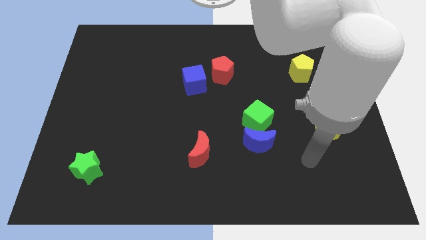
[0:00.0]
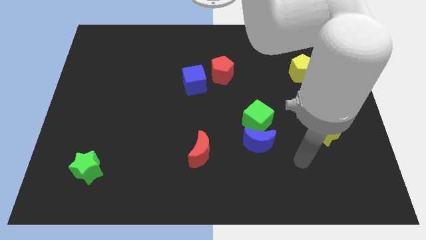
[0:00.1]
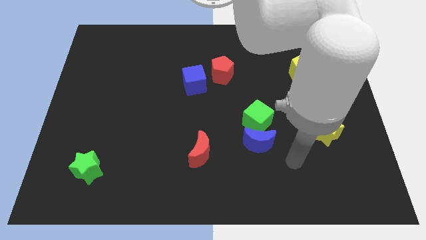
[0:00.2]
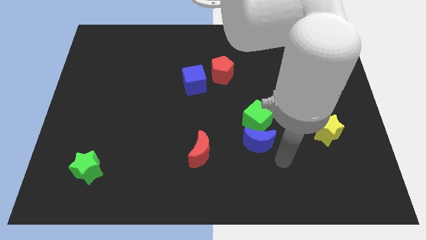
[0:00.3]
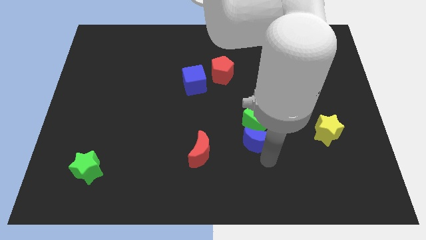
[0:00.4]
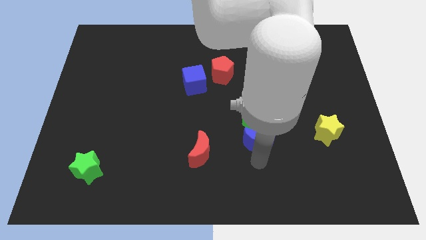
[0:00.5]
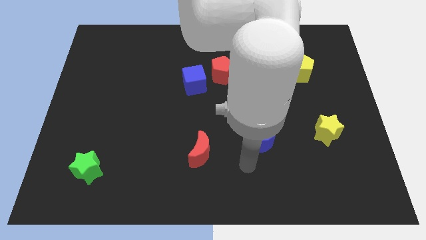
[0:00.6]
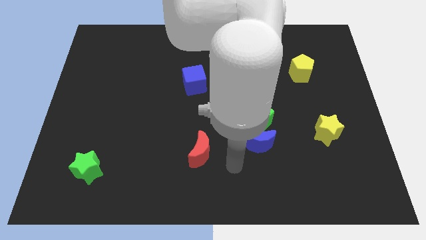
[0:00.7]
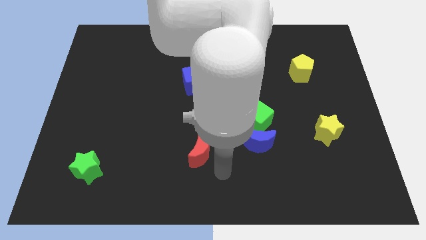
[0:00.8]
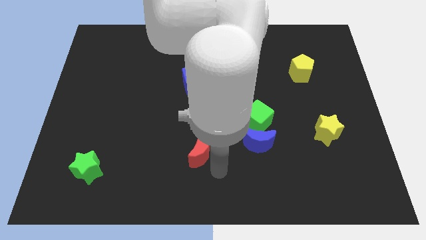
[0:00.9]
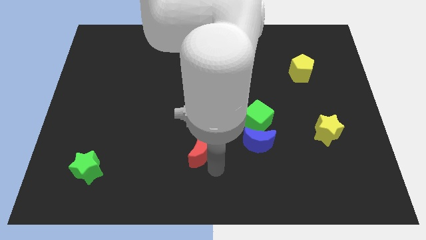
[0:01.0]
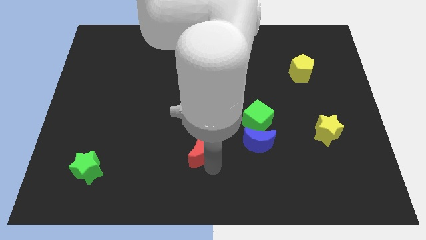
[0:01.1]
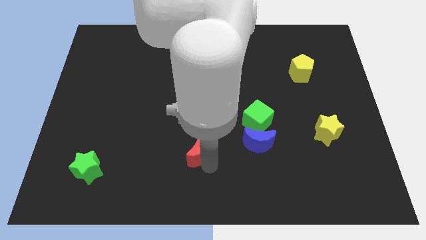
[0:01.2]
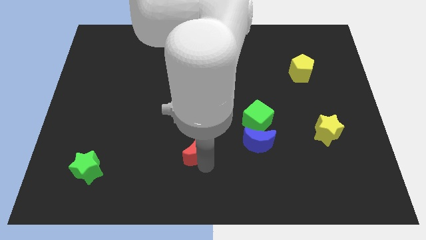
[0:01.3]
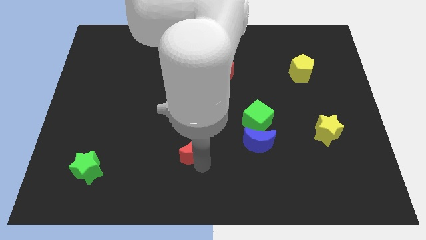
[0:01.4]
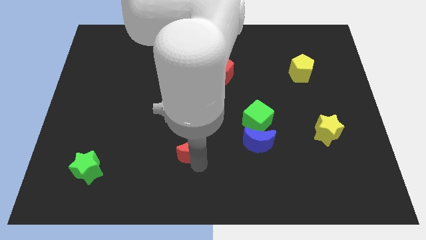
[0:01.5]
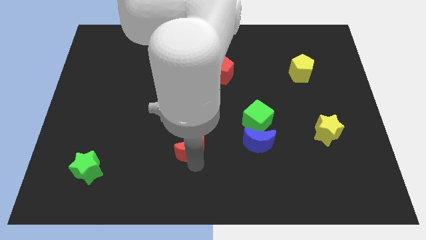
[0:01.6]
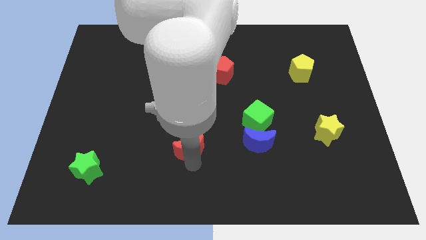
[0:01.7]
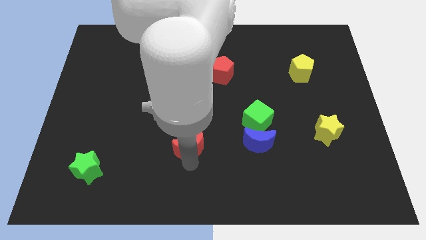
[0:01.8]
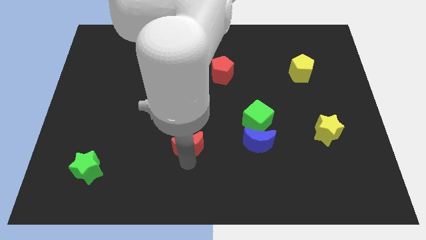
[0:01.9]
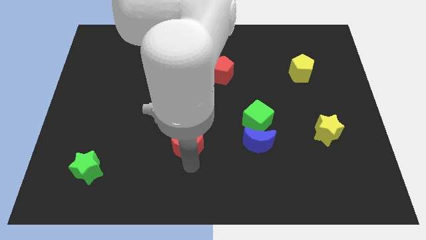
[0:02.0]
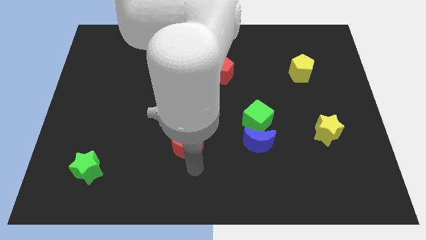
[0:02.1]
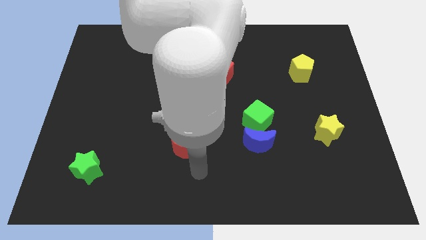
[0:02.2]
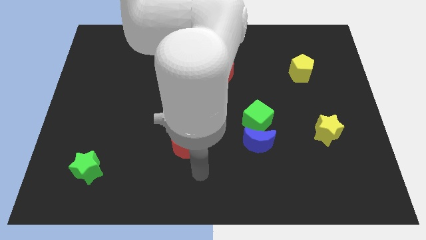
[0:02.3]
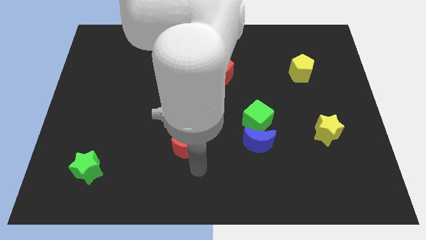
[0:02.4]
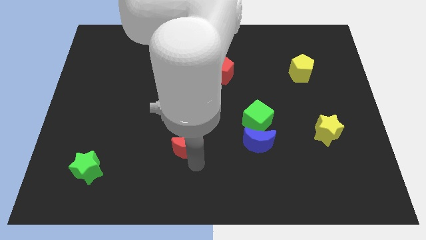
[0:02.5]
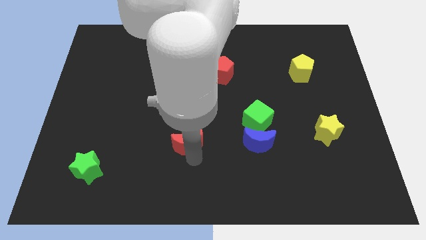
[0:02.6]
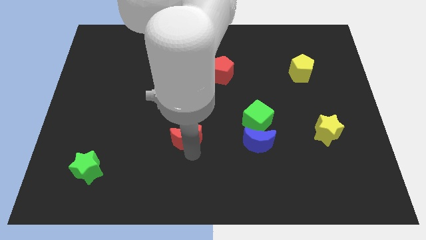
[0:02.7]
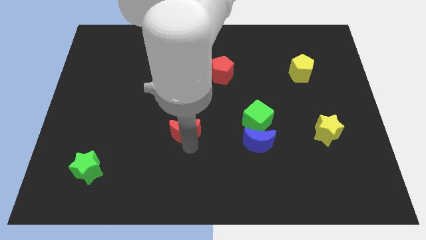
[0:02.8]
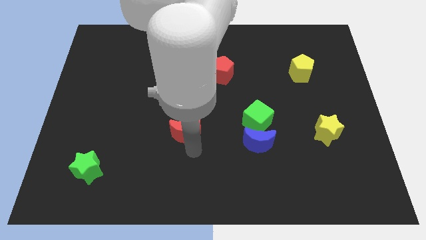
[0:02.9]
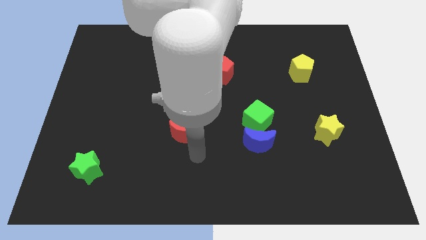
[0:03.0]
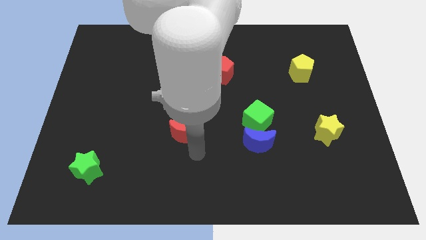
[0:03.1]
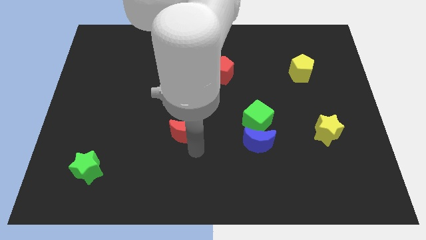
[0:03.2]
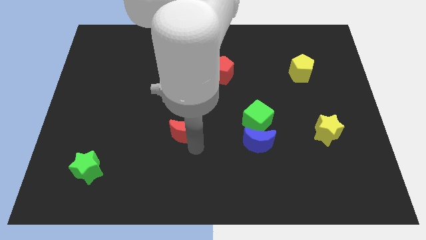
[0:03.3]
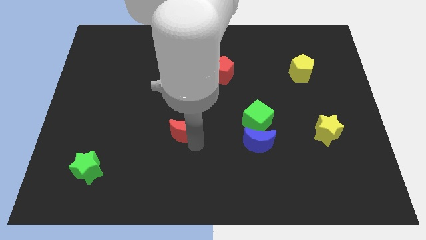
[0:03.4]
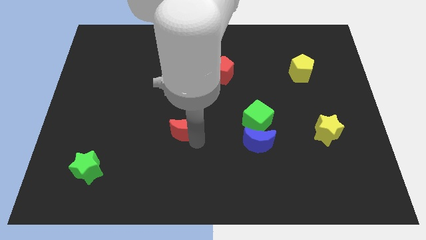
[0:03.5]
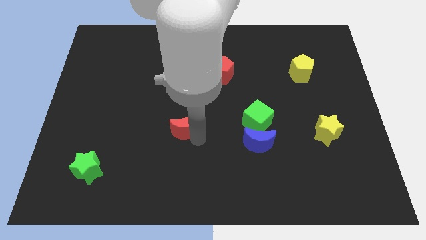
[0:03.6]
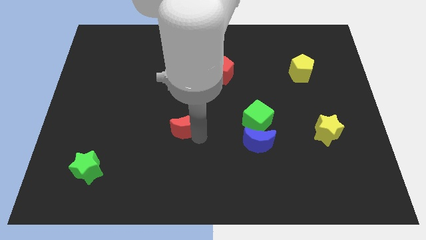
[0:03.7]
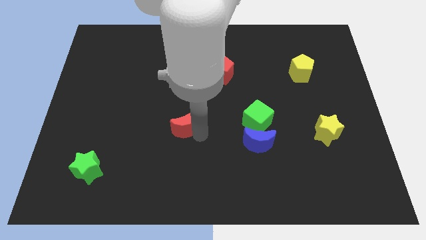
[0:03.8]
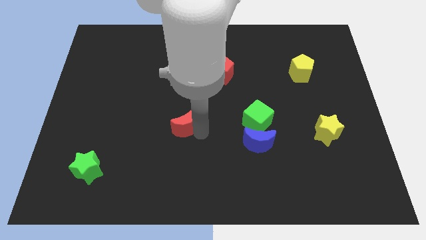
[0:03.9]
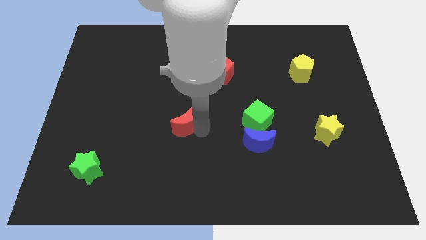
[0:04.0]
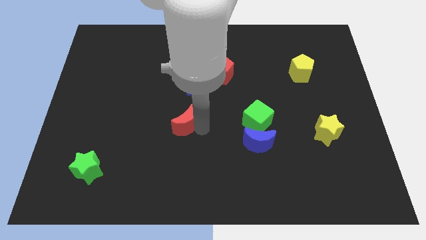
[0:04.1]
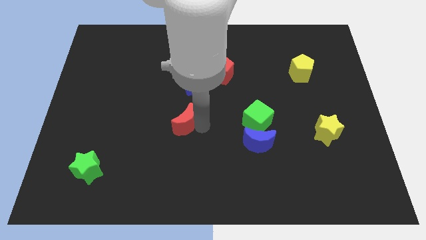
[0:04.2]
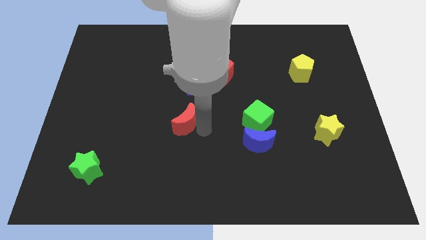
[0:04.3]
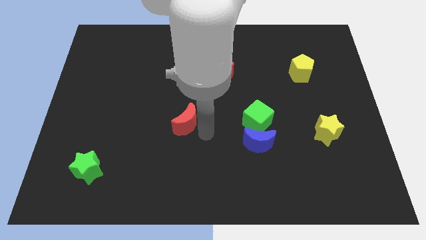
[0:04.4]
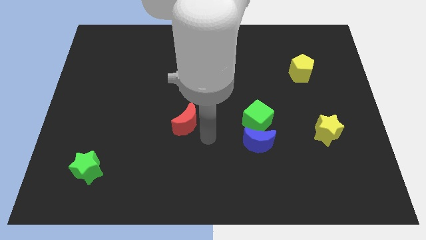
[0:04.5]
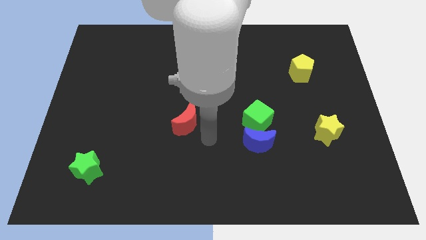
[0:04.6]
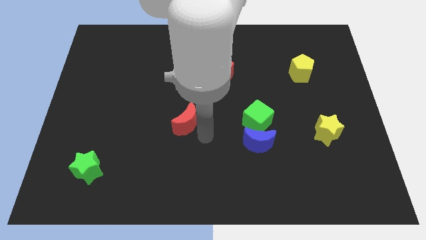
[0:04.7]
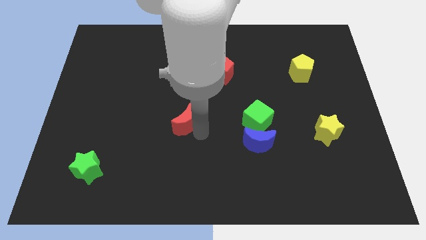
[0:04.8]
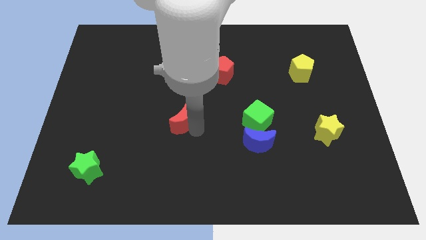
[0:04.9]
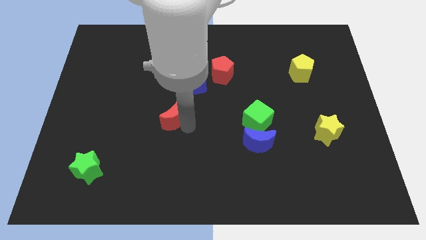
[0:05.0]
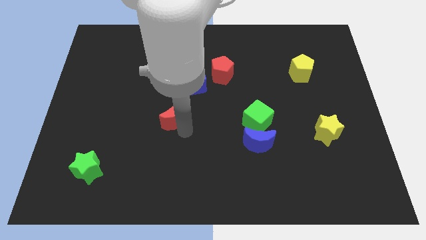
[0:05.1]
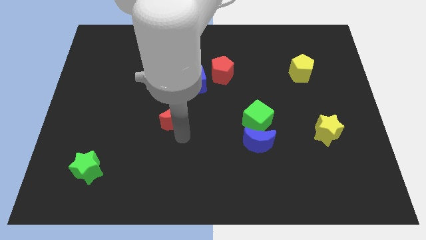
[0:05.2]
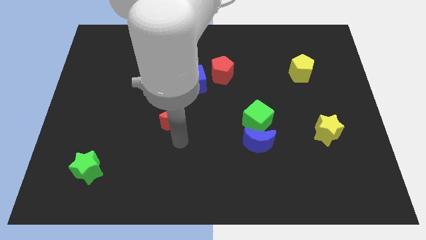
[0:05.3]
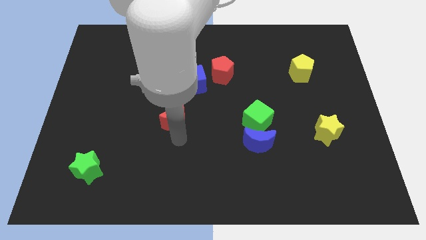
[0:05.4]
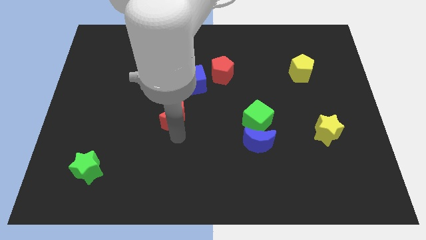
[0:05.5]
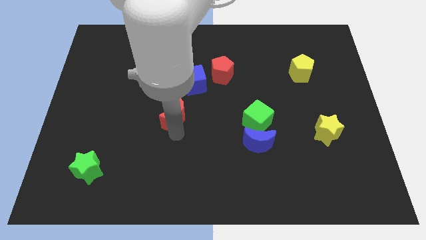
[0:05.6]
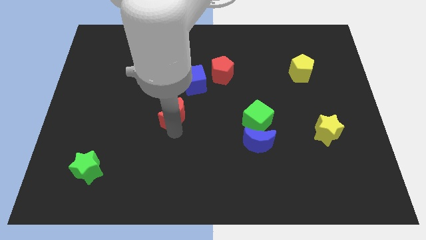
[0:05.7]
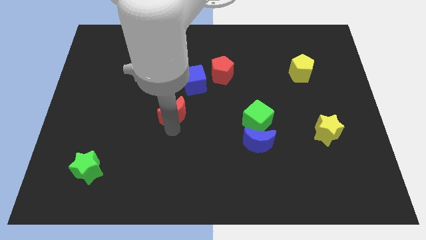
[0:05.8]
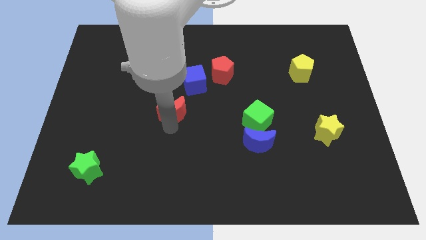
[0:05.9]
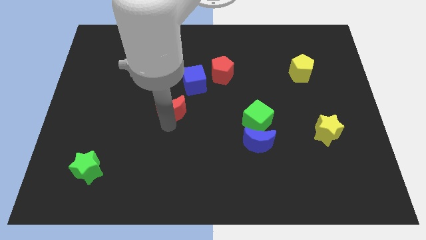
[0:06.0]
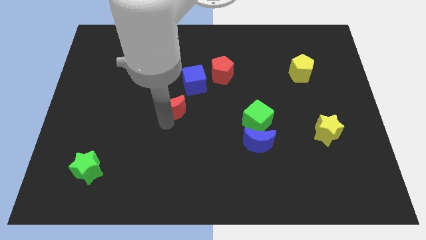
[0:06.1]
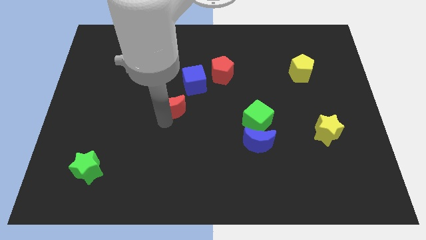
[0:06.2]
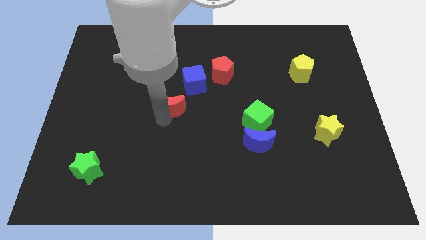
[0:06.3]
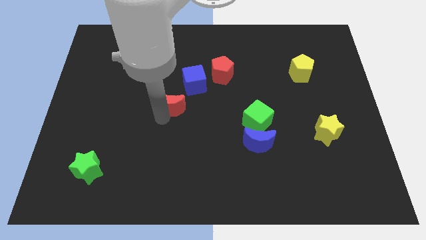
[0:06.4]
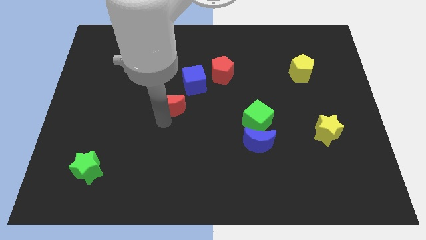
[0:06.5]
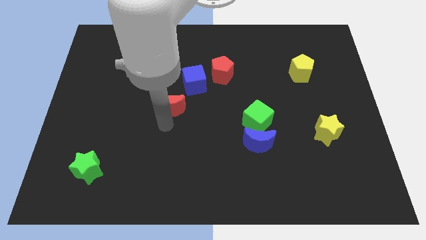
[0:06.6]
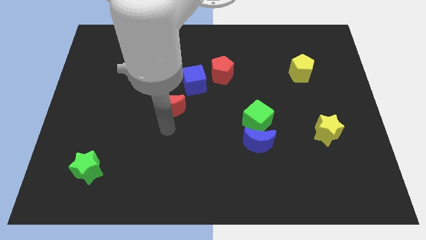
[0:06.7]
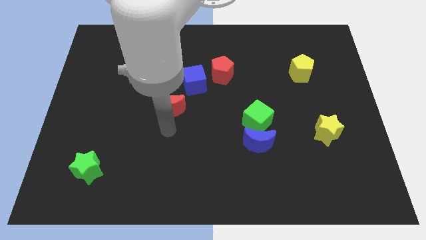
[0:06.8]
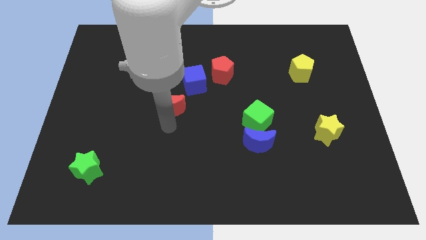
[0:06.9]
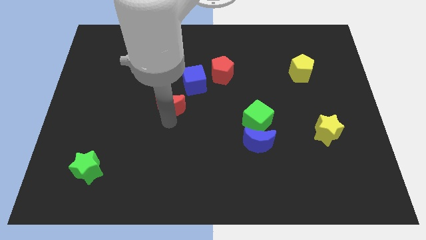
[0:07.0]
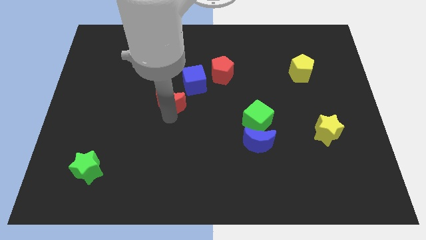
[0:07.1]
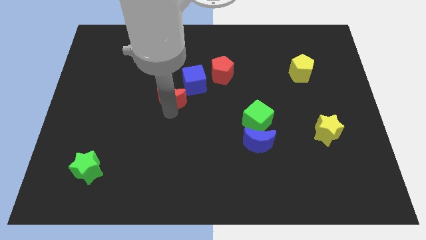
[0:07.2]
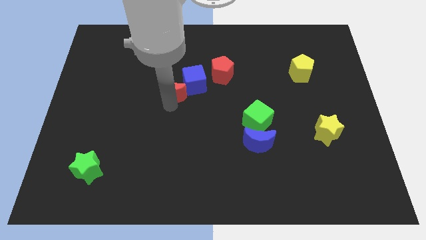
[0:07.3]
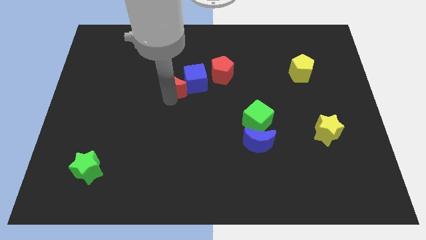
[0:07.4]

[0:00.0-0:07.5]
put the red moon just left of the red pentagon

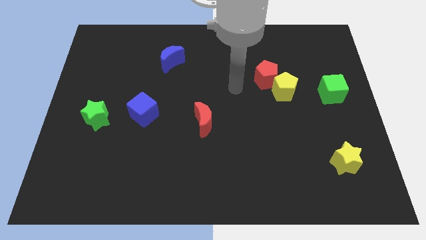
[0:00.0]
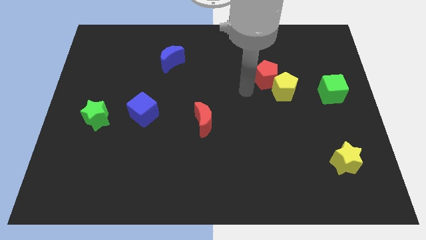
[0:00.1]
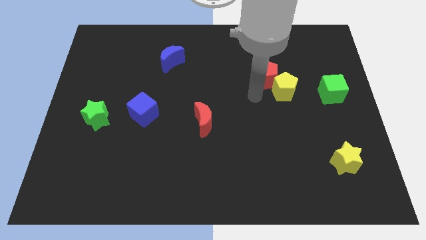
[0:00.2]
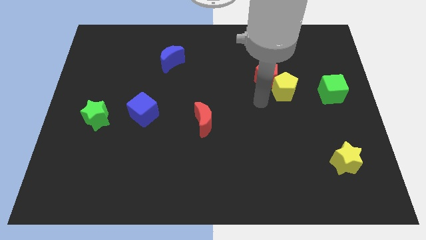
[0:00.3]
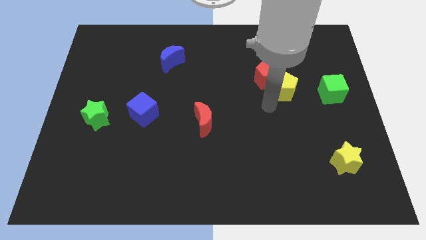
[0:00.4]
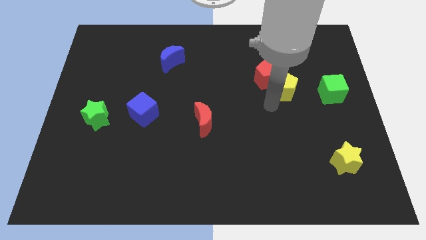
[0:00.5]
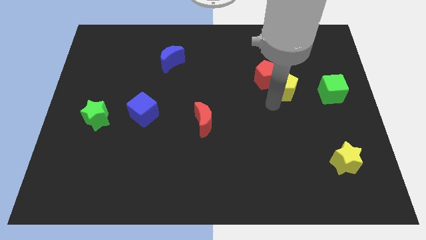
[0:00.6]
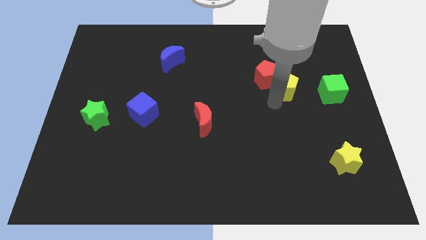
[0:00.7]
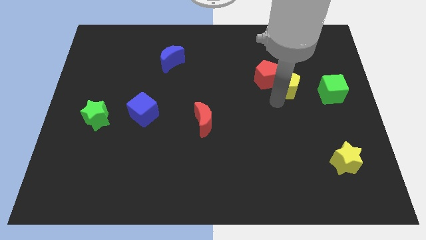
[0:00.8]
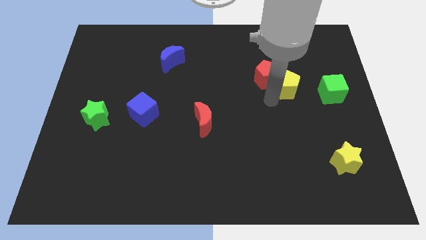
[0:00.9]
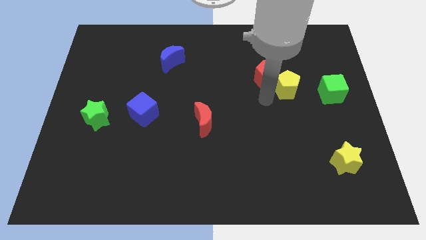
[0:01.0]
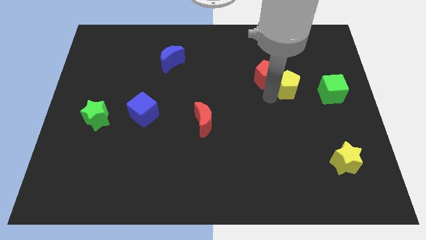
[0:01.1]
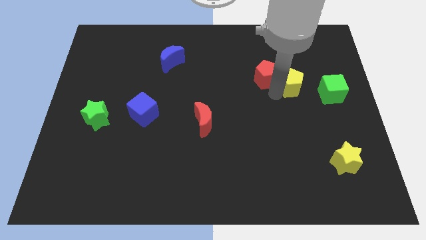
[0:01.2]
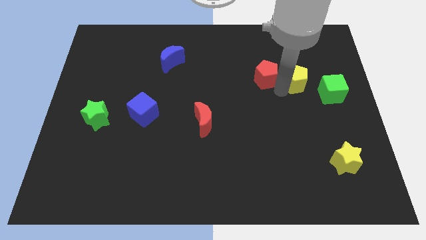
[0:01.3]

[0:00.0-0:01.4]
move the yellow pentagon diagonally up and to the left of the green cube
